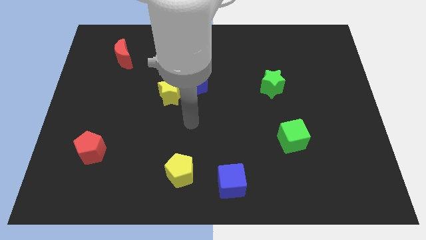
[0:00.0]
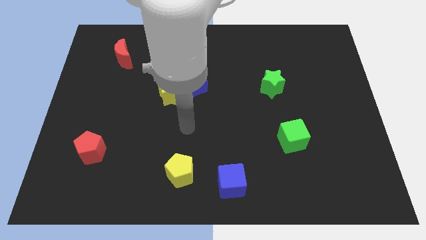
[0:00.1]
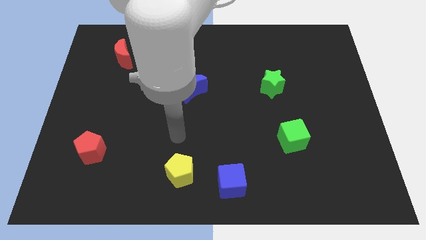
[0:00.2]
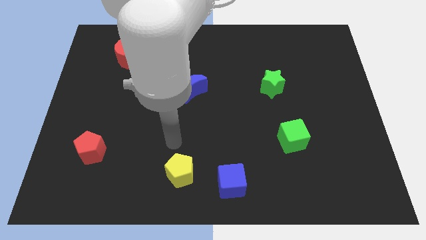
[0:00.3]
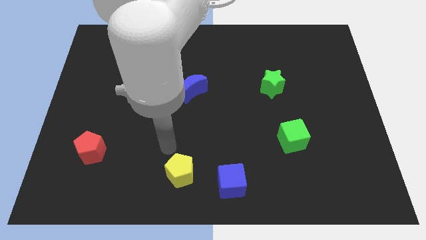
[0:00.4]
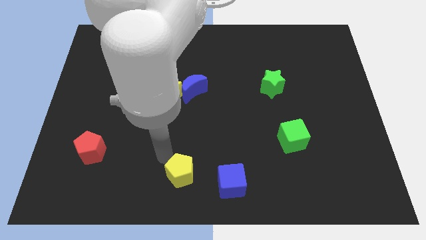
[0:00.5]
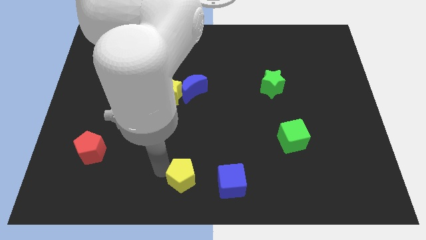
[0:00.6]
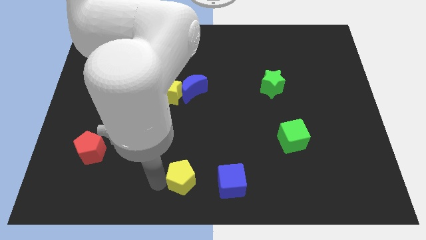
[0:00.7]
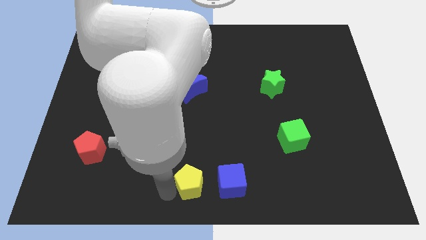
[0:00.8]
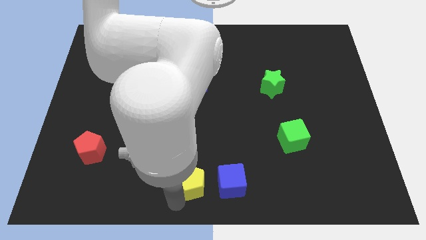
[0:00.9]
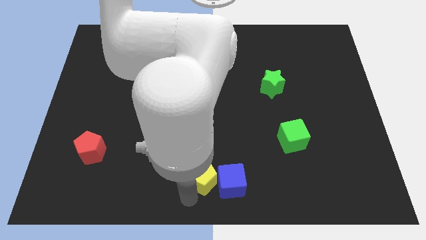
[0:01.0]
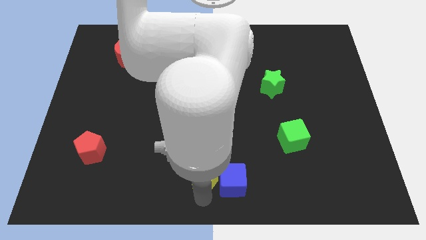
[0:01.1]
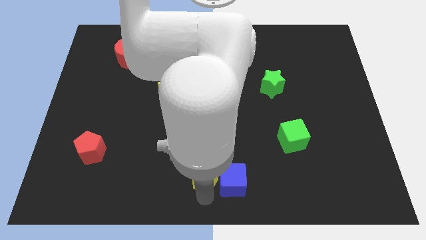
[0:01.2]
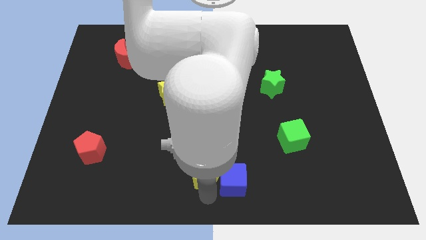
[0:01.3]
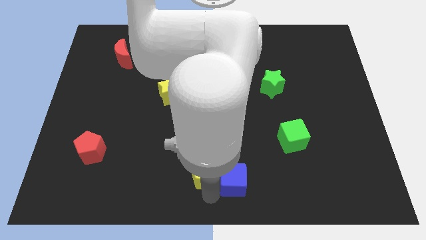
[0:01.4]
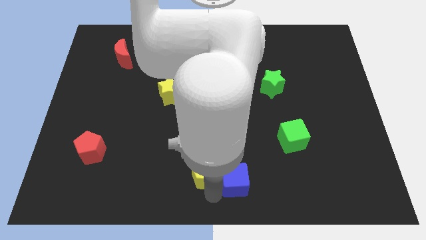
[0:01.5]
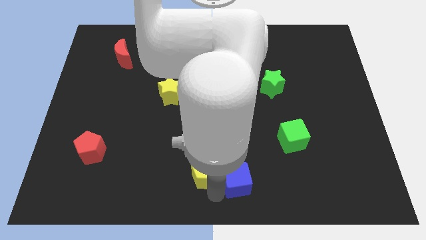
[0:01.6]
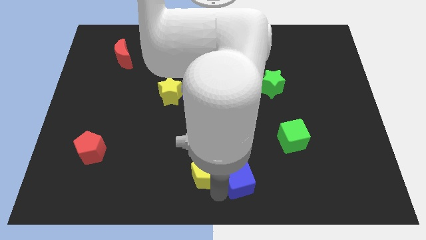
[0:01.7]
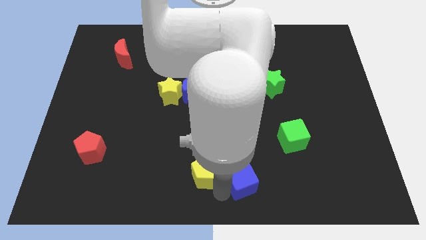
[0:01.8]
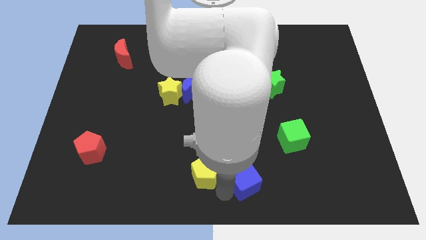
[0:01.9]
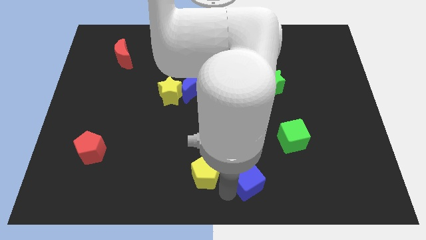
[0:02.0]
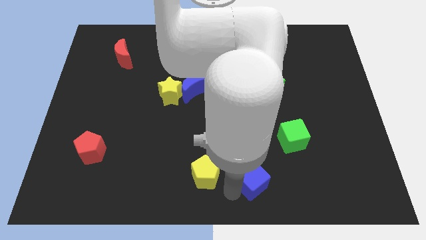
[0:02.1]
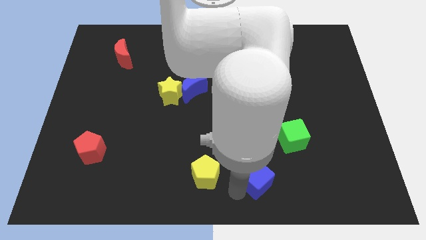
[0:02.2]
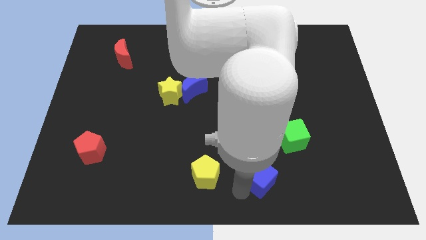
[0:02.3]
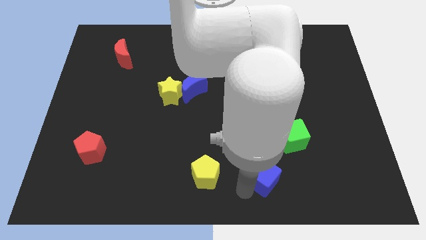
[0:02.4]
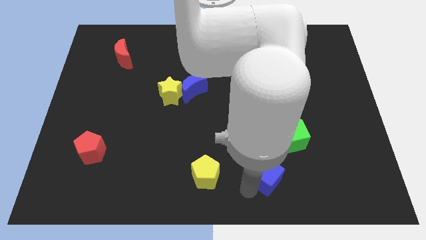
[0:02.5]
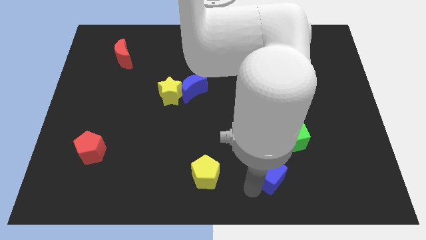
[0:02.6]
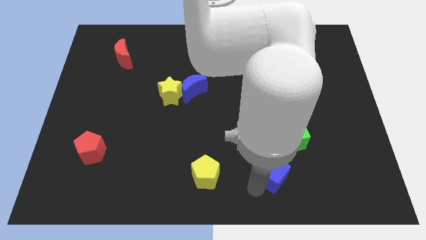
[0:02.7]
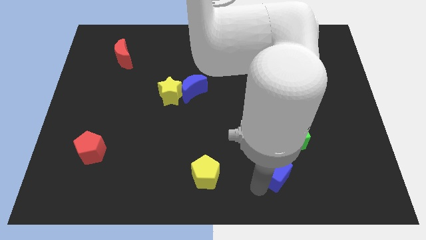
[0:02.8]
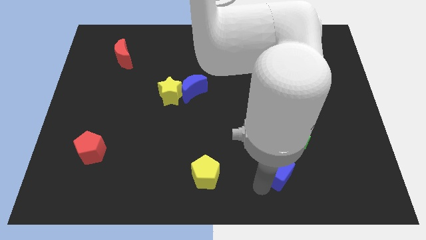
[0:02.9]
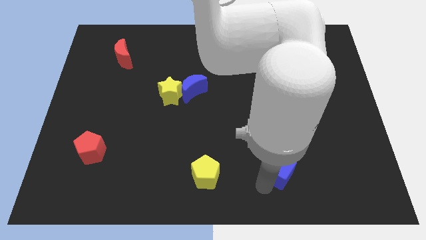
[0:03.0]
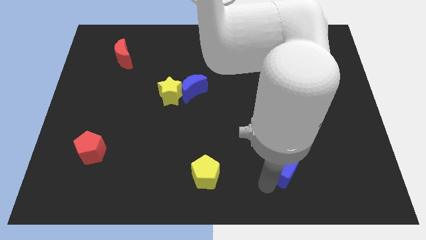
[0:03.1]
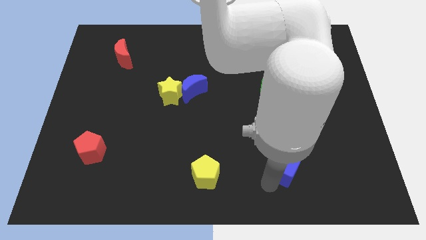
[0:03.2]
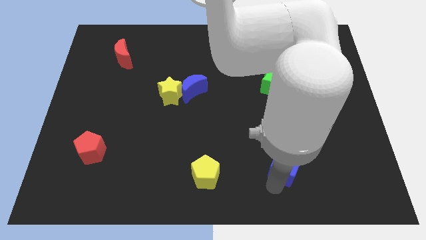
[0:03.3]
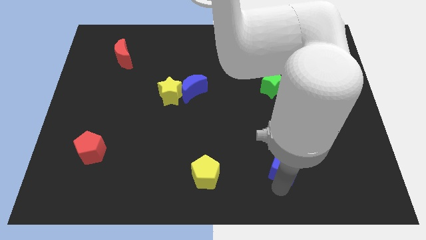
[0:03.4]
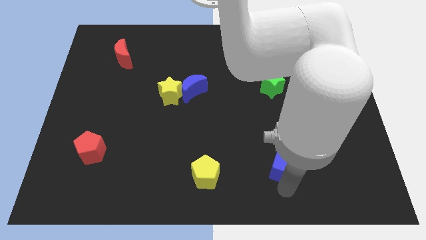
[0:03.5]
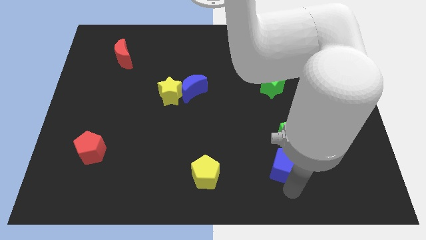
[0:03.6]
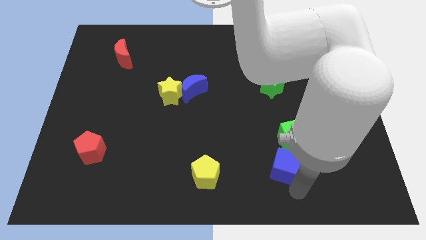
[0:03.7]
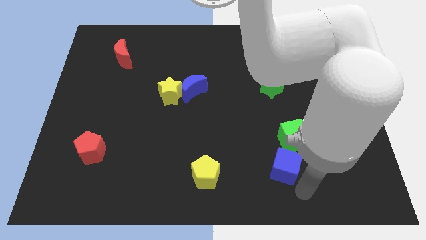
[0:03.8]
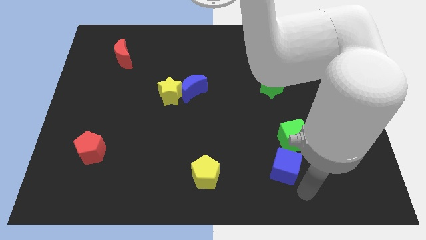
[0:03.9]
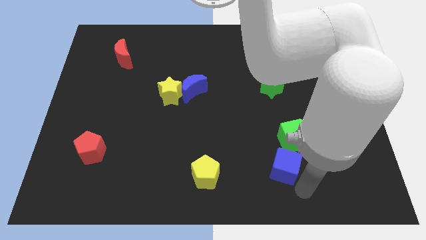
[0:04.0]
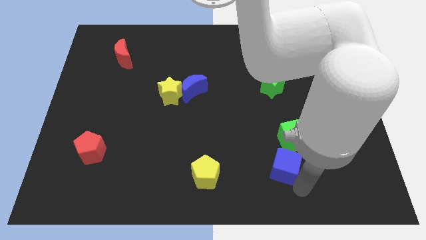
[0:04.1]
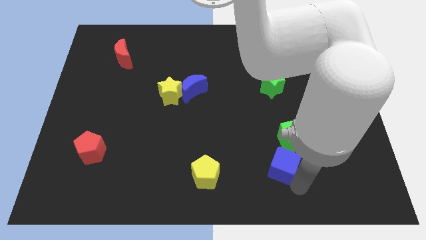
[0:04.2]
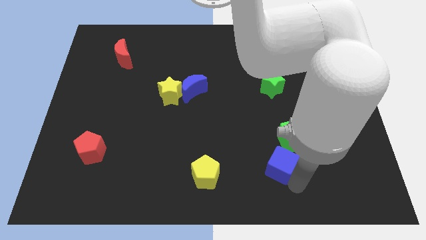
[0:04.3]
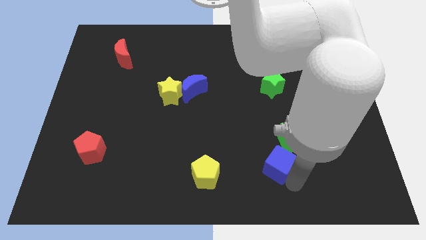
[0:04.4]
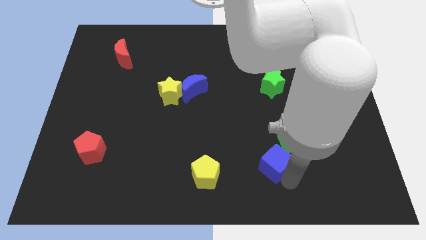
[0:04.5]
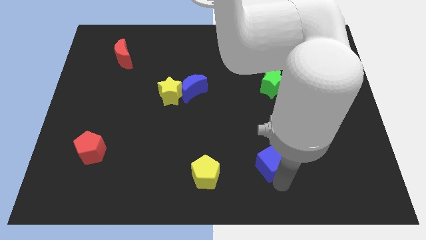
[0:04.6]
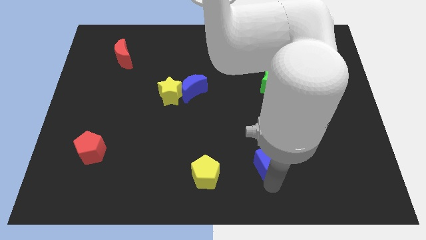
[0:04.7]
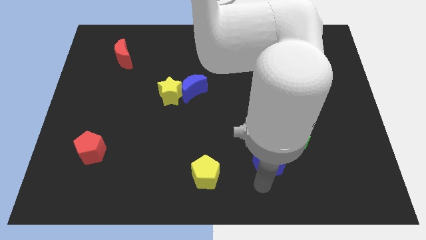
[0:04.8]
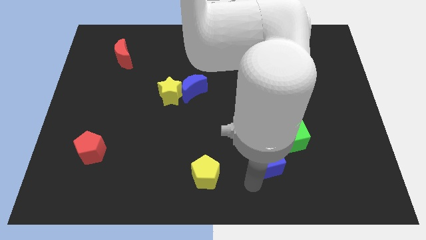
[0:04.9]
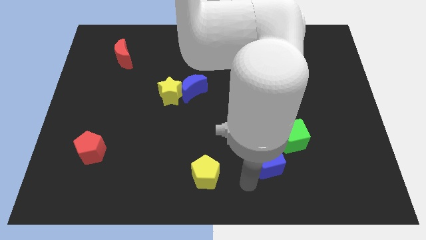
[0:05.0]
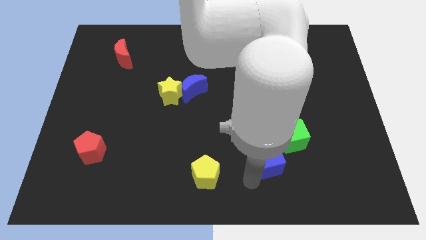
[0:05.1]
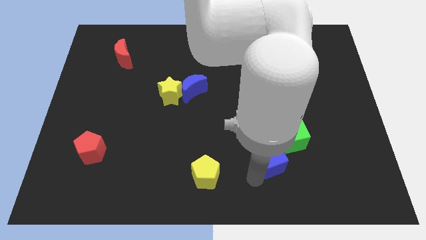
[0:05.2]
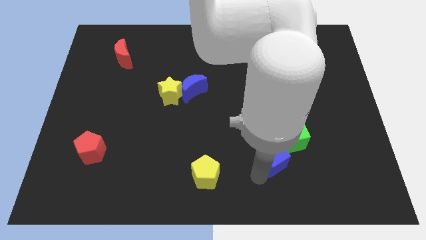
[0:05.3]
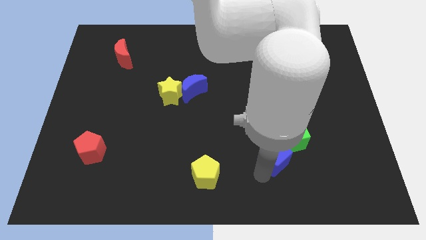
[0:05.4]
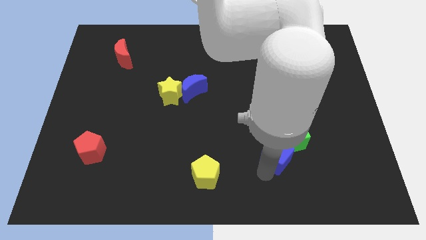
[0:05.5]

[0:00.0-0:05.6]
put the blue cube to the green cube

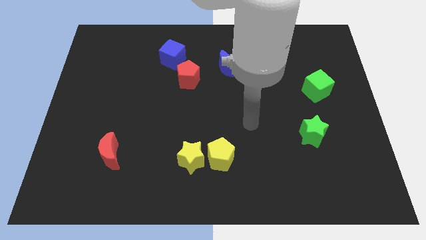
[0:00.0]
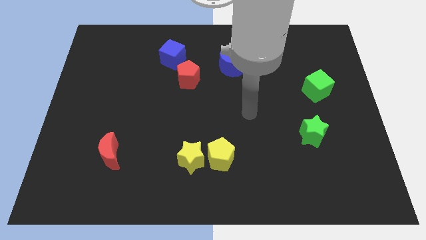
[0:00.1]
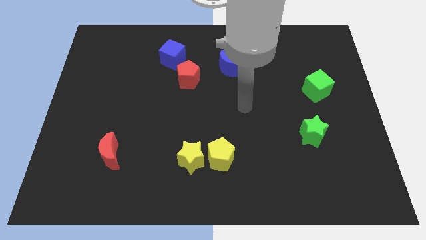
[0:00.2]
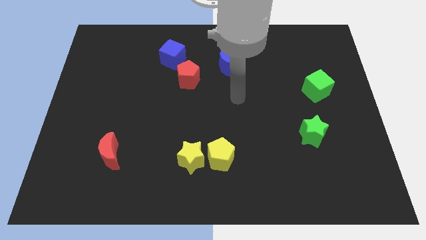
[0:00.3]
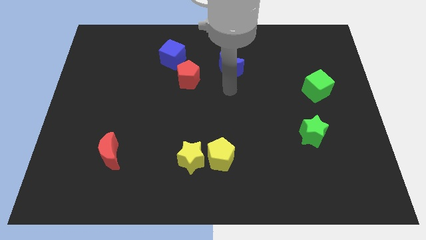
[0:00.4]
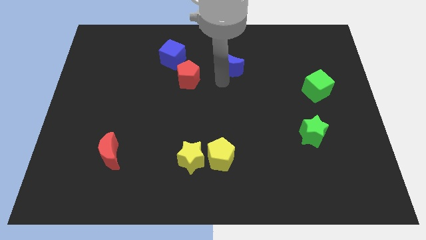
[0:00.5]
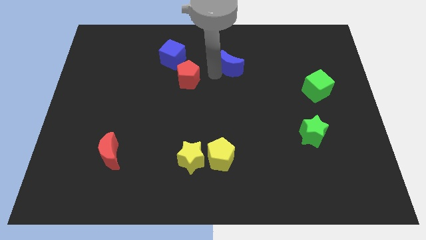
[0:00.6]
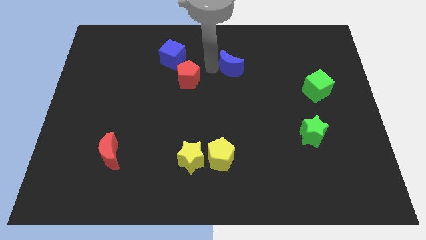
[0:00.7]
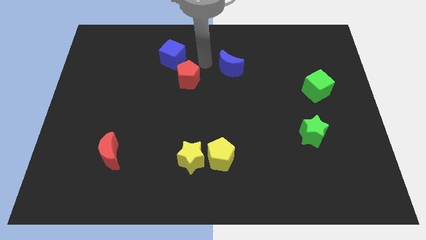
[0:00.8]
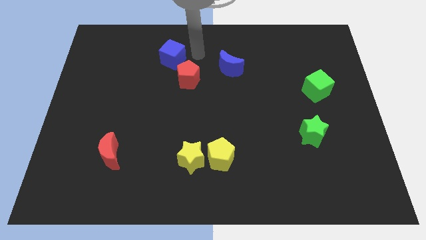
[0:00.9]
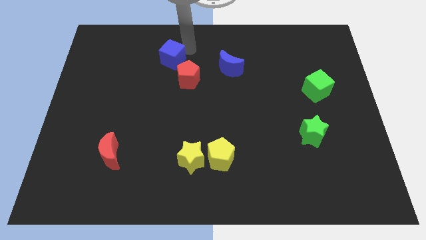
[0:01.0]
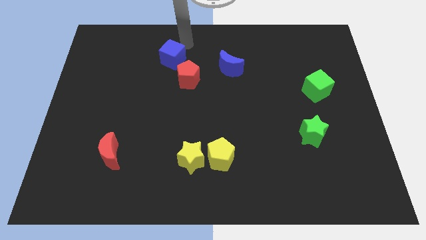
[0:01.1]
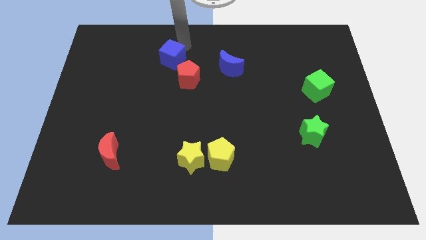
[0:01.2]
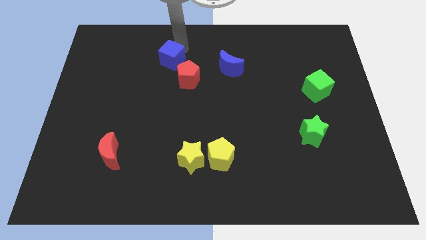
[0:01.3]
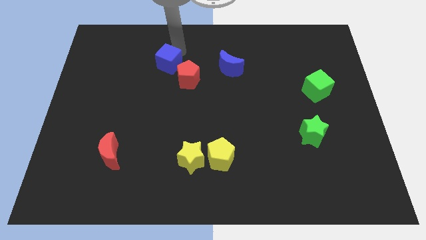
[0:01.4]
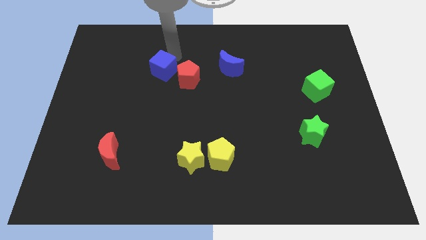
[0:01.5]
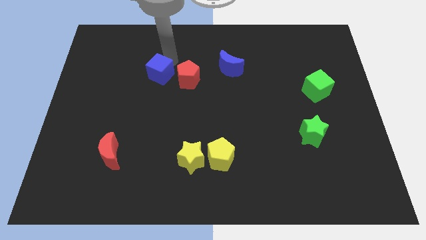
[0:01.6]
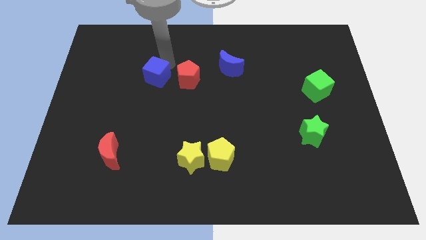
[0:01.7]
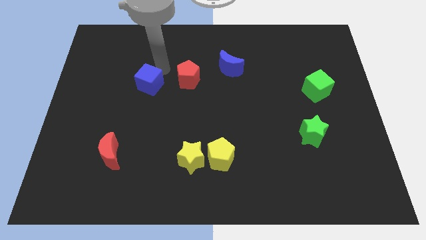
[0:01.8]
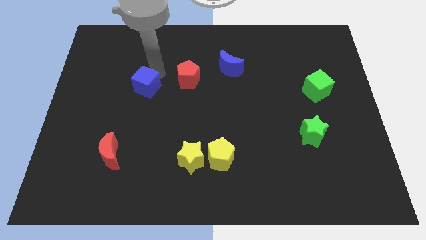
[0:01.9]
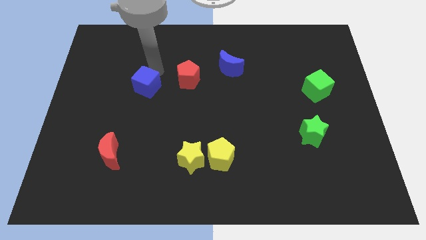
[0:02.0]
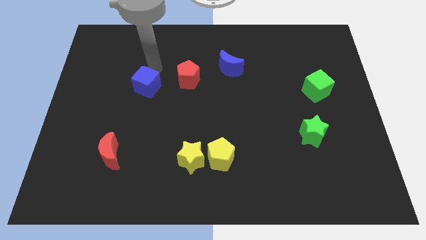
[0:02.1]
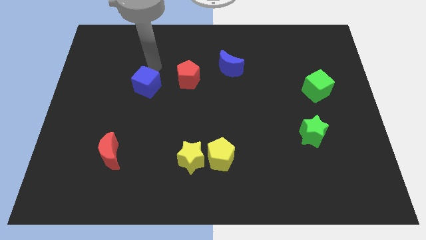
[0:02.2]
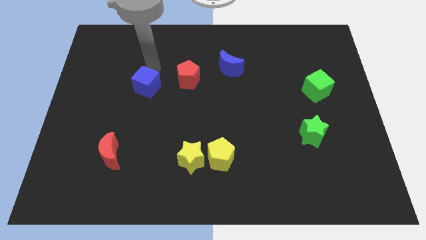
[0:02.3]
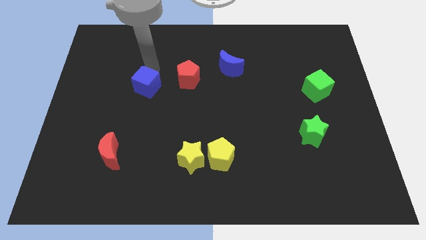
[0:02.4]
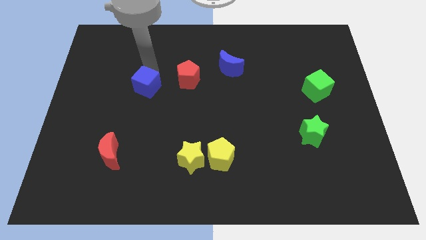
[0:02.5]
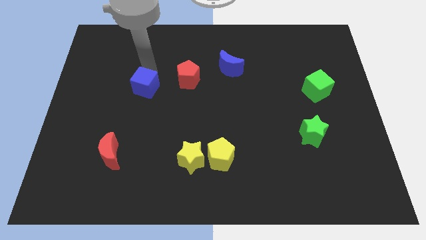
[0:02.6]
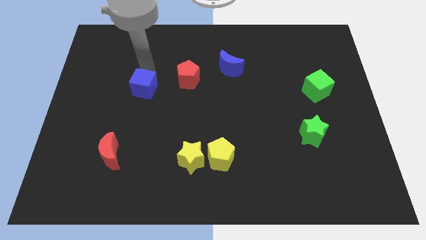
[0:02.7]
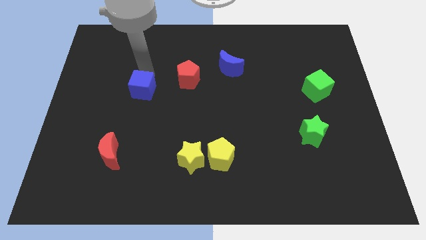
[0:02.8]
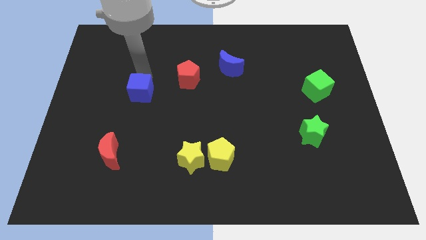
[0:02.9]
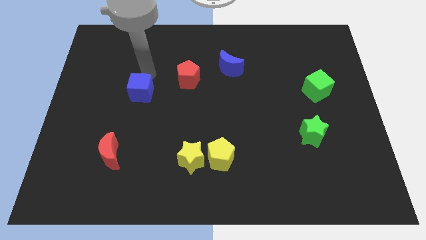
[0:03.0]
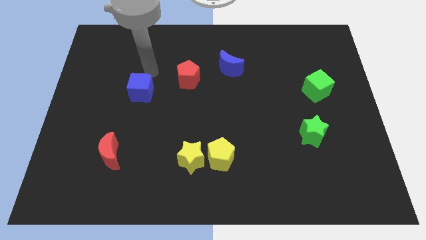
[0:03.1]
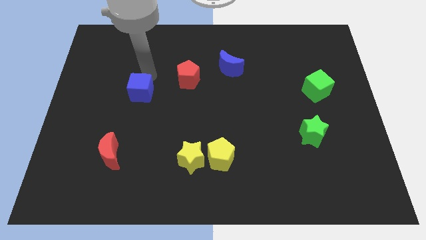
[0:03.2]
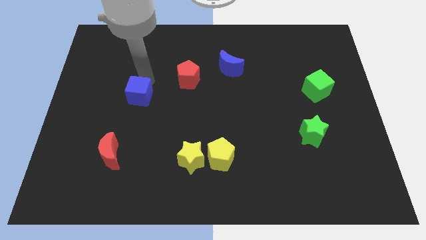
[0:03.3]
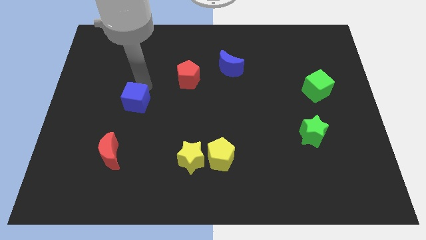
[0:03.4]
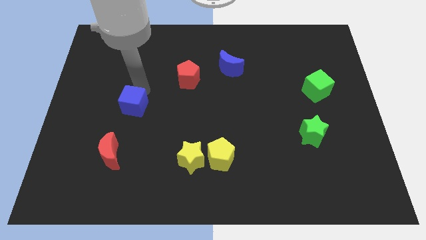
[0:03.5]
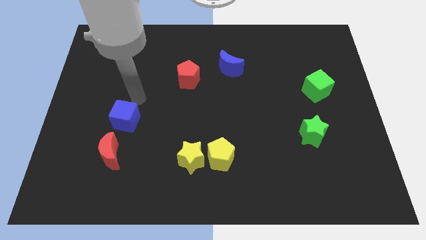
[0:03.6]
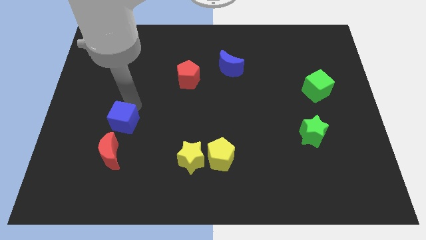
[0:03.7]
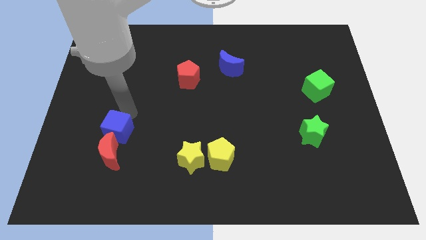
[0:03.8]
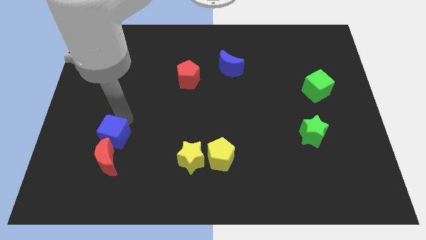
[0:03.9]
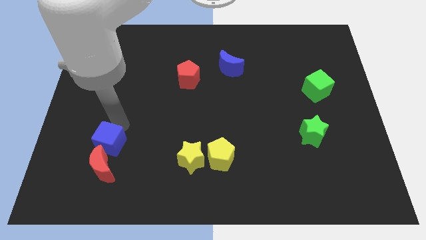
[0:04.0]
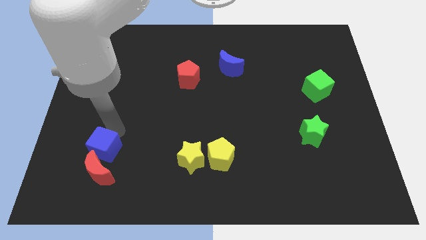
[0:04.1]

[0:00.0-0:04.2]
put the blue cube next to the red moon
